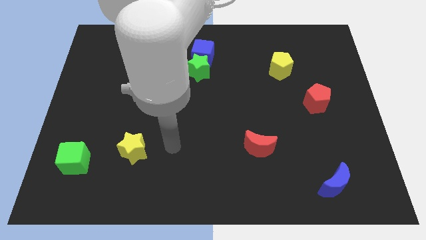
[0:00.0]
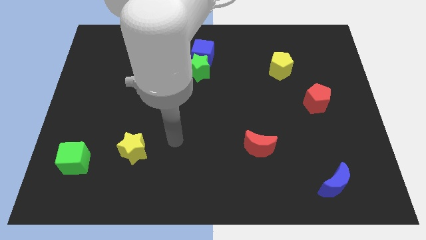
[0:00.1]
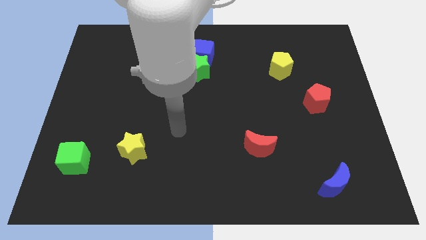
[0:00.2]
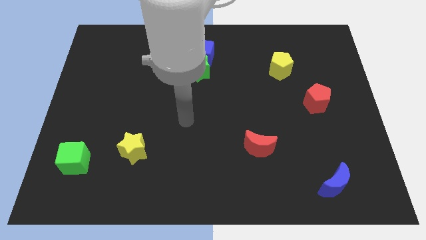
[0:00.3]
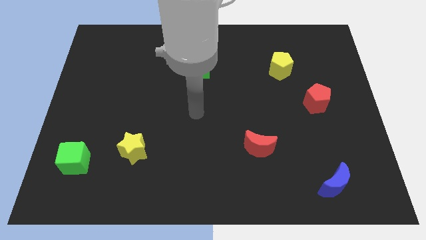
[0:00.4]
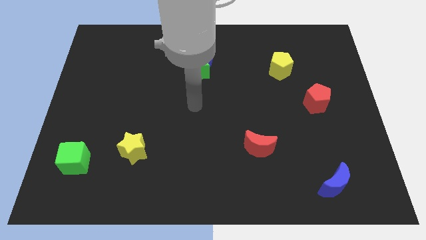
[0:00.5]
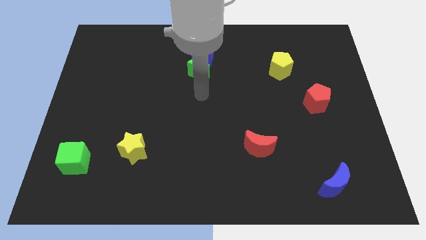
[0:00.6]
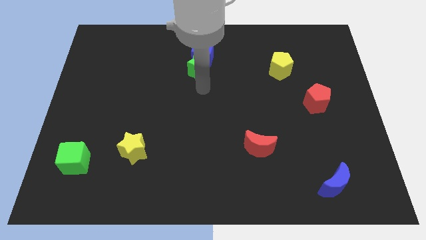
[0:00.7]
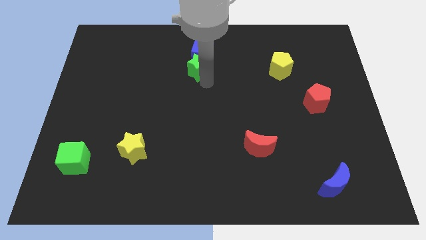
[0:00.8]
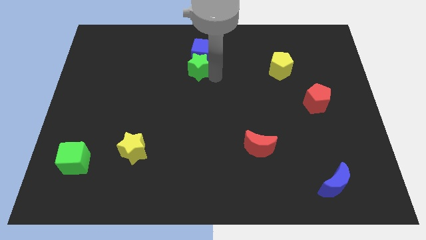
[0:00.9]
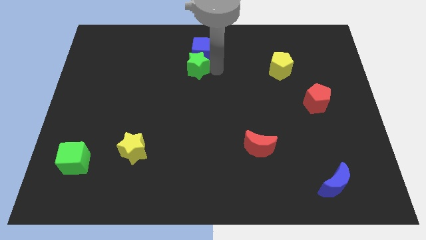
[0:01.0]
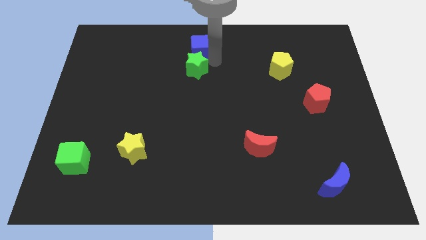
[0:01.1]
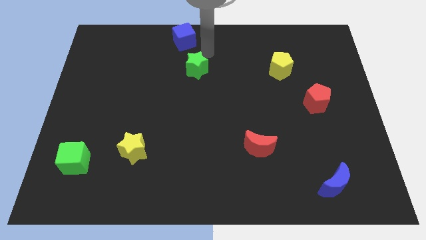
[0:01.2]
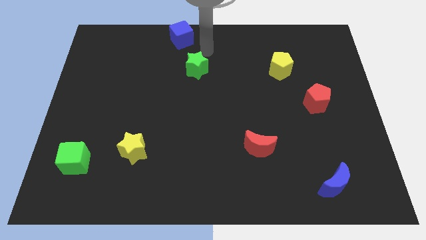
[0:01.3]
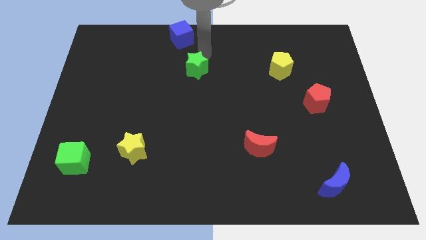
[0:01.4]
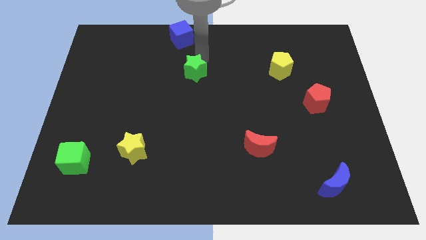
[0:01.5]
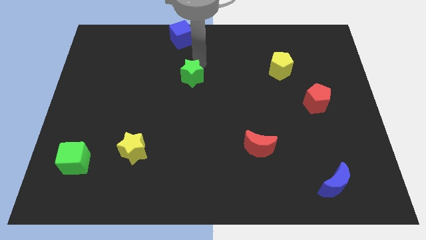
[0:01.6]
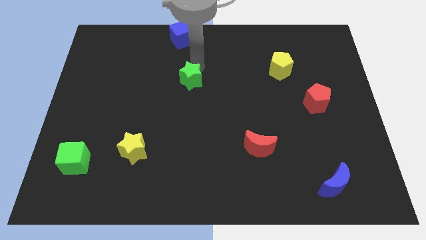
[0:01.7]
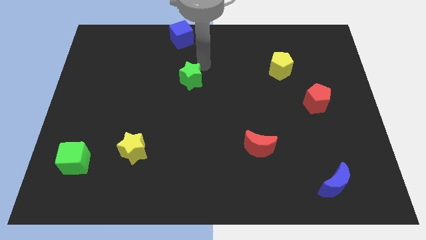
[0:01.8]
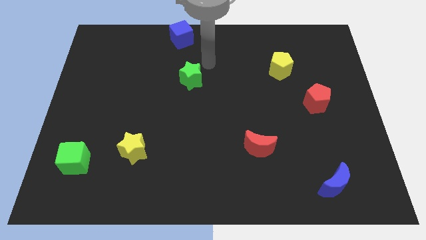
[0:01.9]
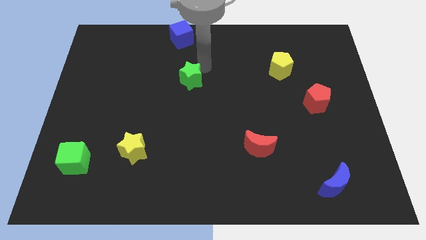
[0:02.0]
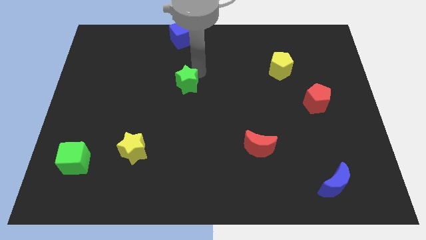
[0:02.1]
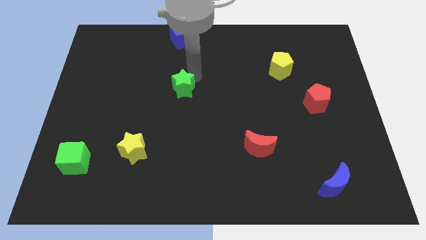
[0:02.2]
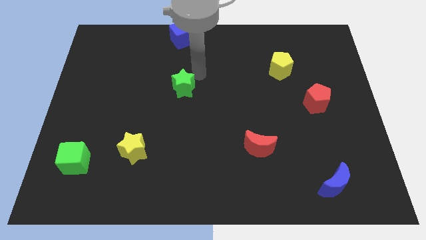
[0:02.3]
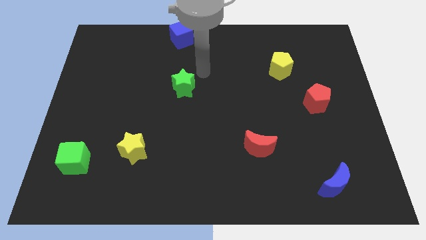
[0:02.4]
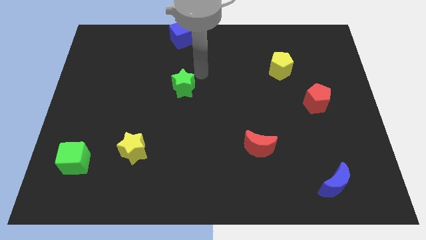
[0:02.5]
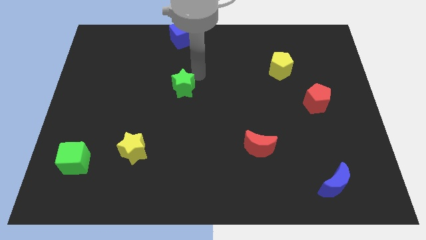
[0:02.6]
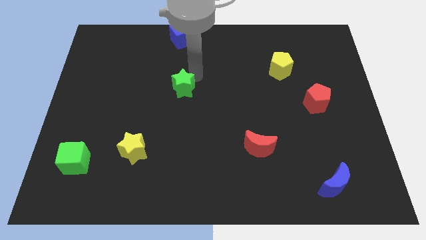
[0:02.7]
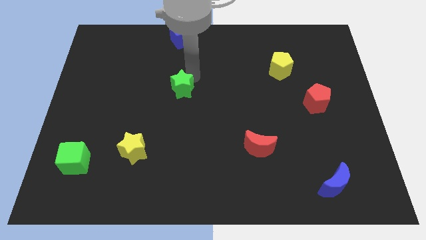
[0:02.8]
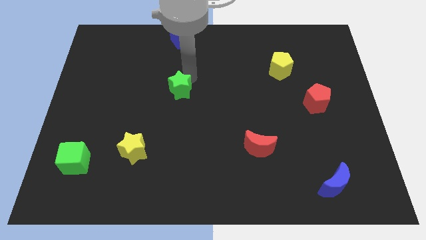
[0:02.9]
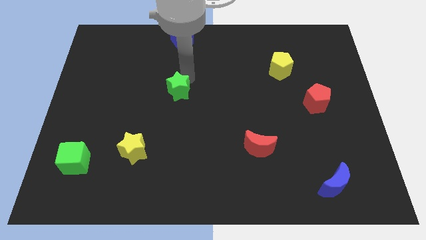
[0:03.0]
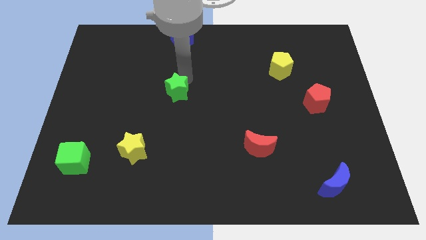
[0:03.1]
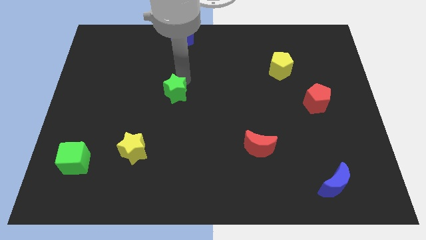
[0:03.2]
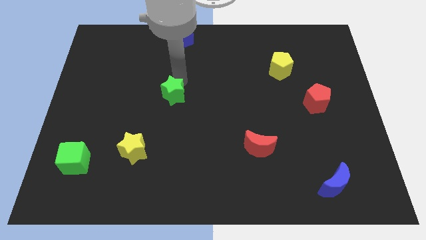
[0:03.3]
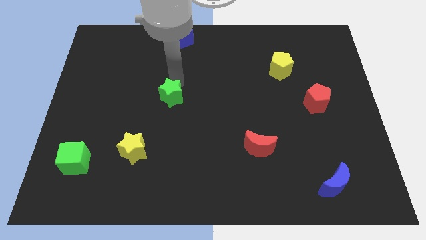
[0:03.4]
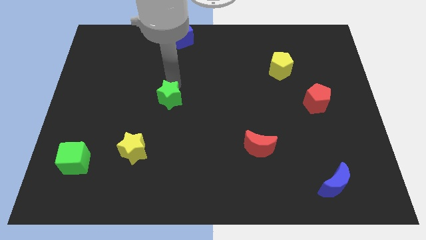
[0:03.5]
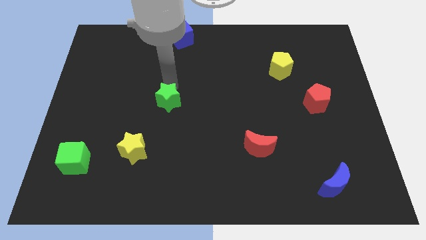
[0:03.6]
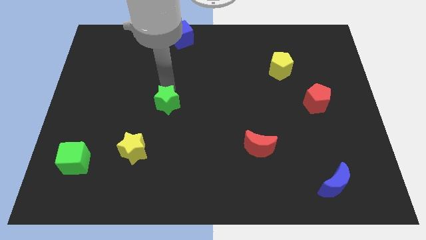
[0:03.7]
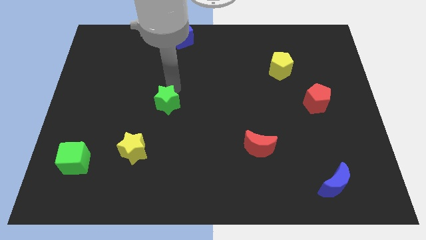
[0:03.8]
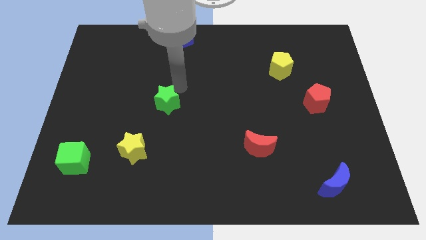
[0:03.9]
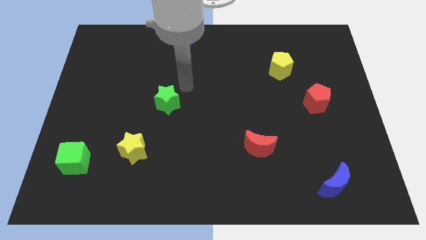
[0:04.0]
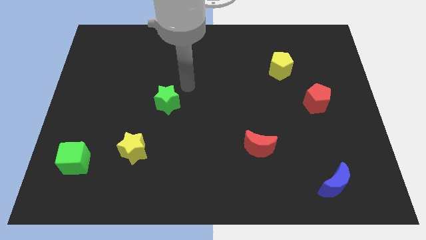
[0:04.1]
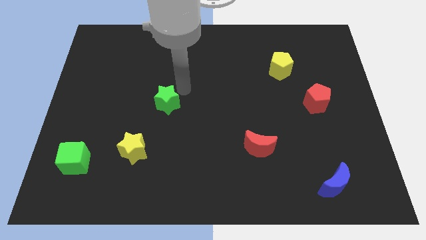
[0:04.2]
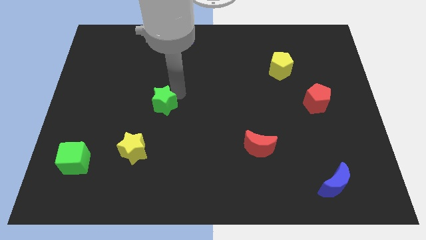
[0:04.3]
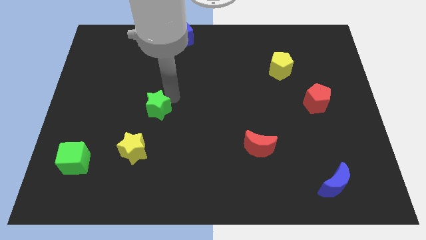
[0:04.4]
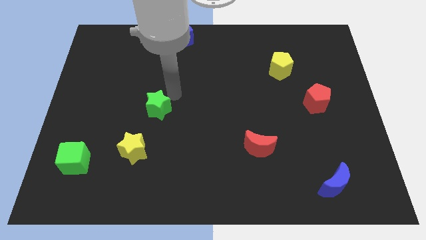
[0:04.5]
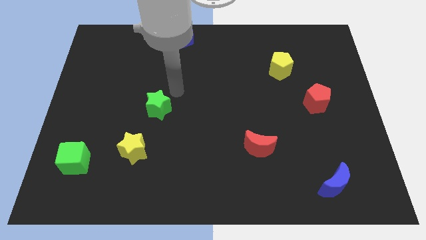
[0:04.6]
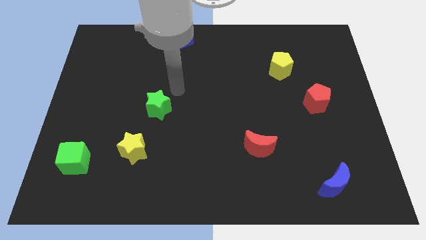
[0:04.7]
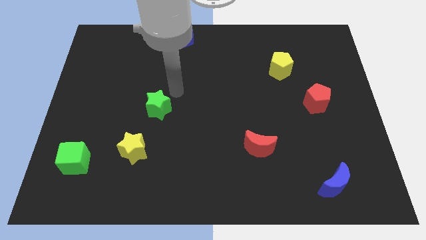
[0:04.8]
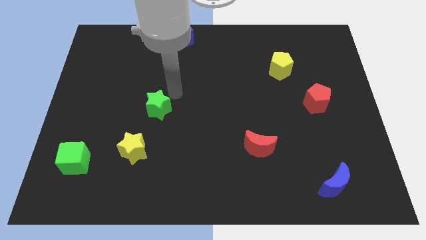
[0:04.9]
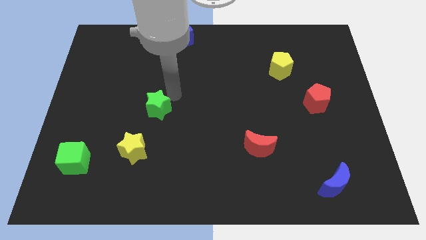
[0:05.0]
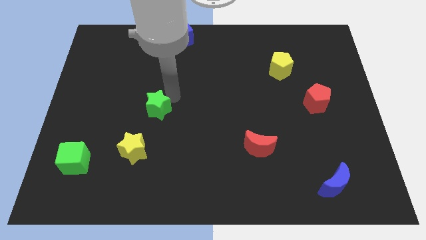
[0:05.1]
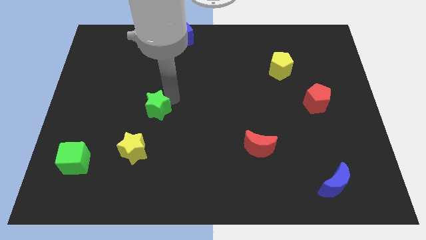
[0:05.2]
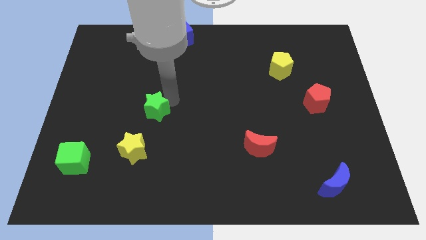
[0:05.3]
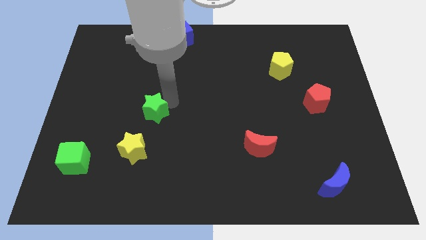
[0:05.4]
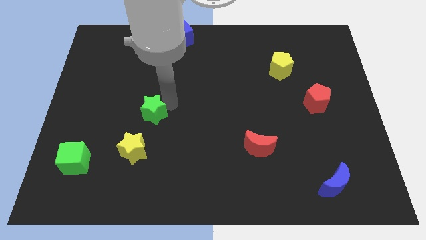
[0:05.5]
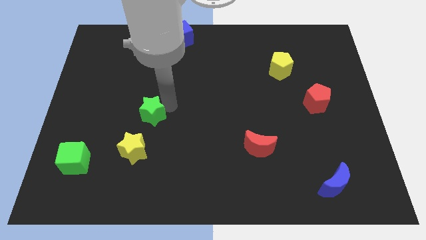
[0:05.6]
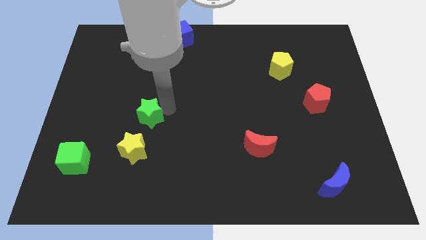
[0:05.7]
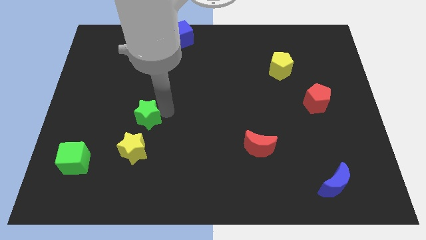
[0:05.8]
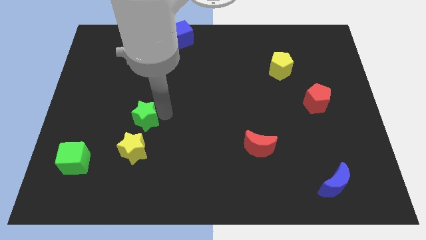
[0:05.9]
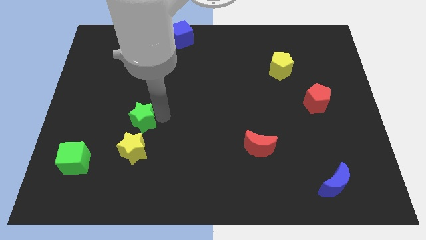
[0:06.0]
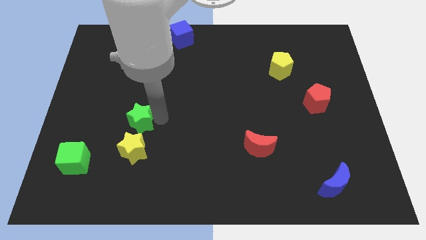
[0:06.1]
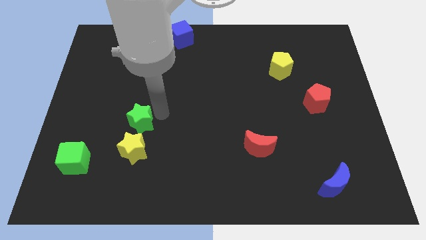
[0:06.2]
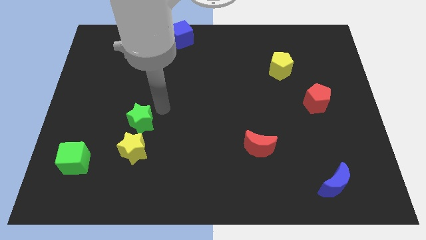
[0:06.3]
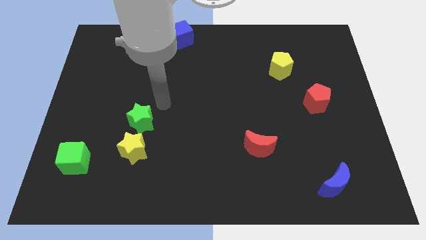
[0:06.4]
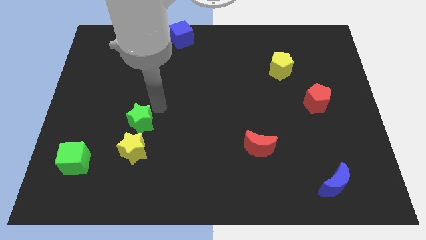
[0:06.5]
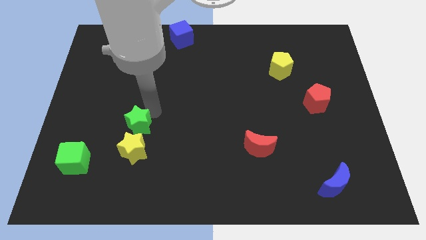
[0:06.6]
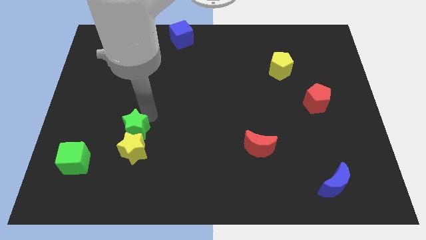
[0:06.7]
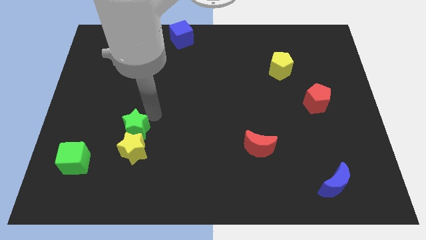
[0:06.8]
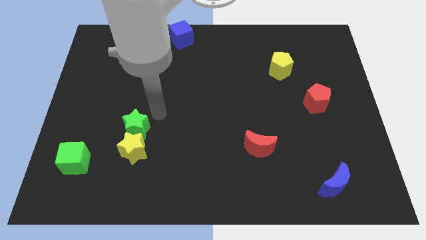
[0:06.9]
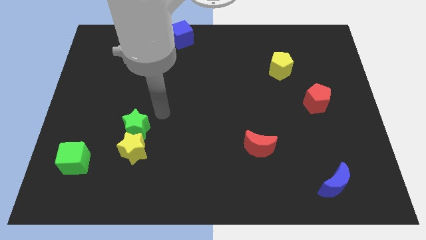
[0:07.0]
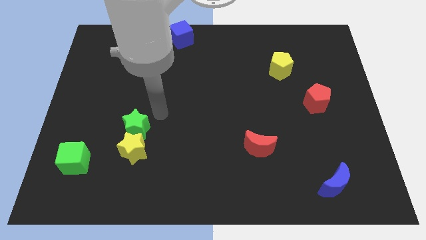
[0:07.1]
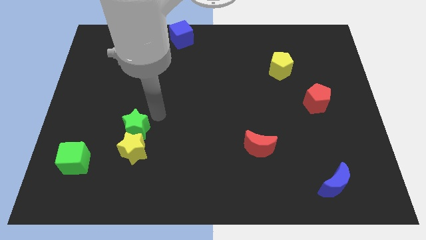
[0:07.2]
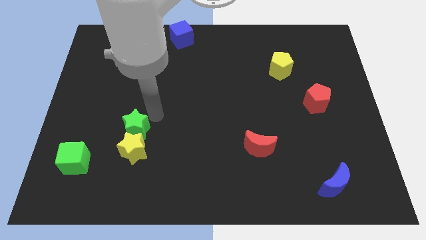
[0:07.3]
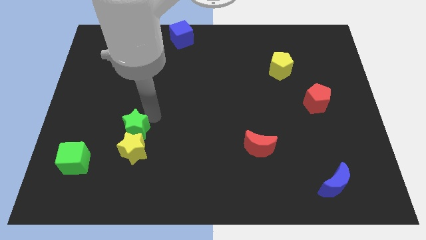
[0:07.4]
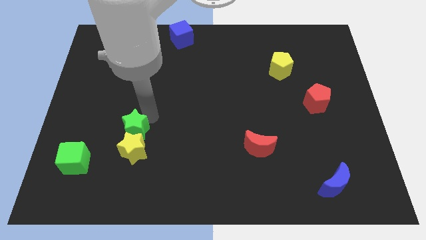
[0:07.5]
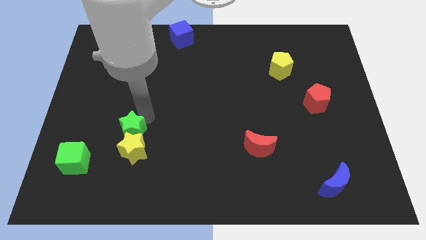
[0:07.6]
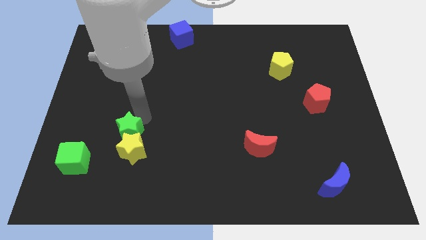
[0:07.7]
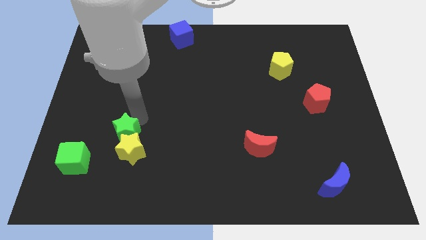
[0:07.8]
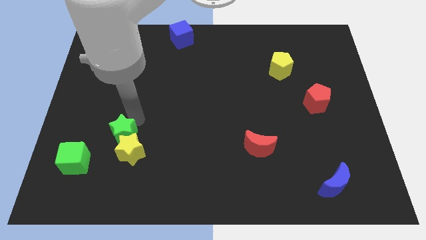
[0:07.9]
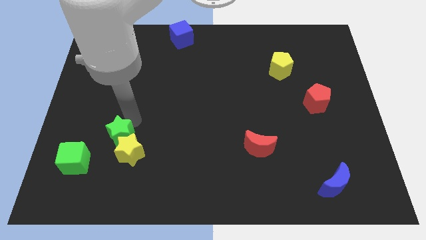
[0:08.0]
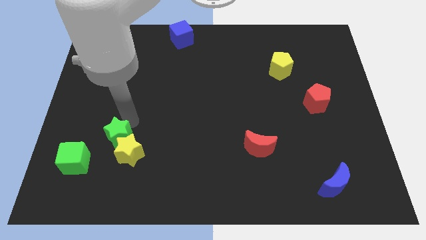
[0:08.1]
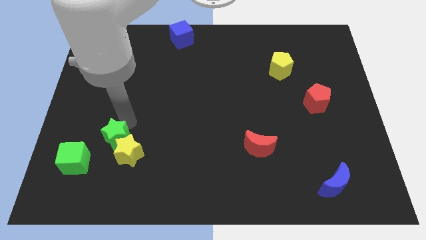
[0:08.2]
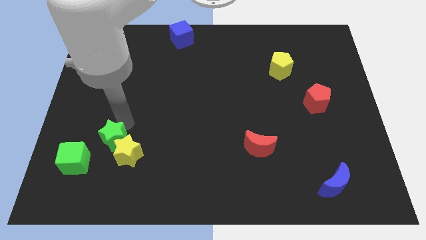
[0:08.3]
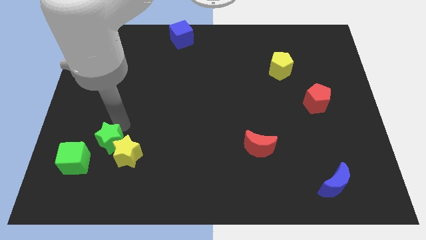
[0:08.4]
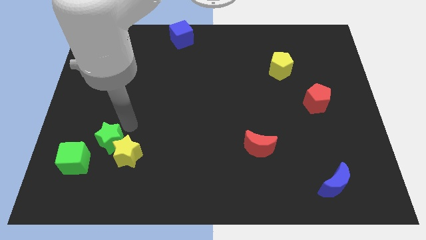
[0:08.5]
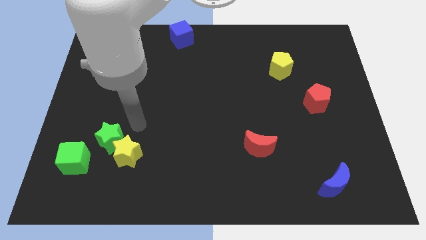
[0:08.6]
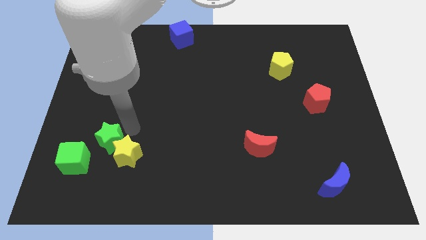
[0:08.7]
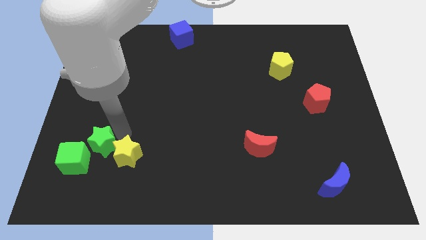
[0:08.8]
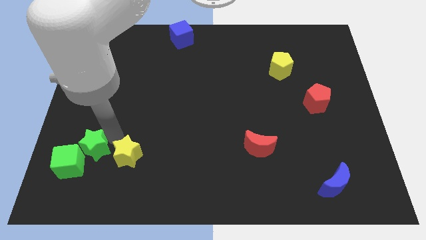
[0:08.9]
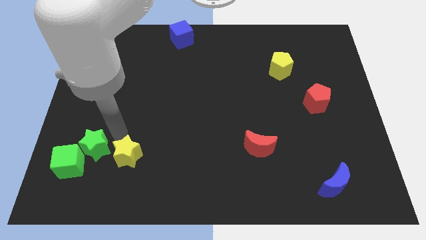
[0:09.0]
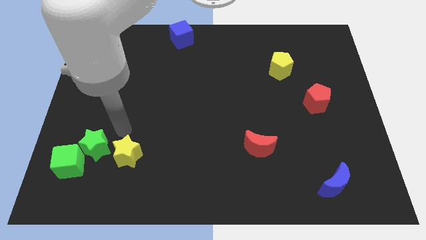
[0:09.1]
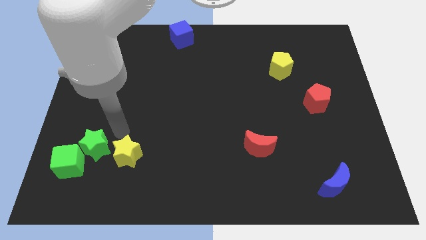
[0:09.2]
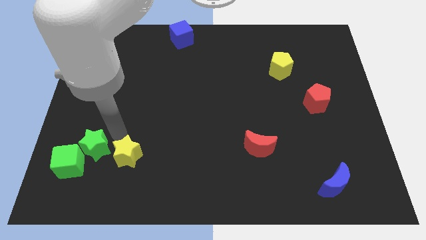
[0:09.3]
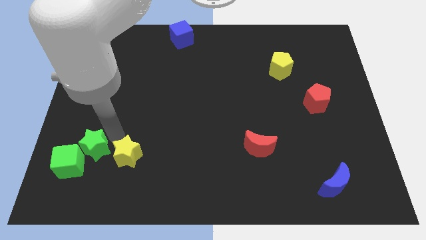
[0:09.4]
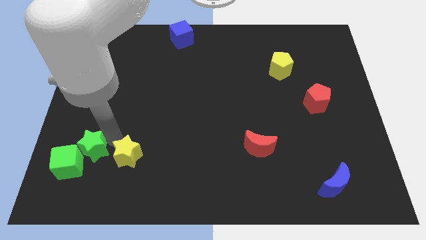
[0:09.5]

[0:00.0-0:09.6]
slide the green star to the green cube
